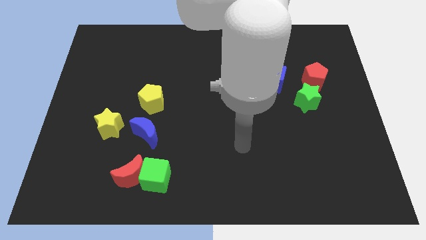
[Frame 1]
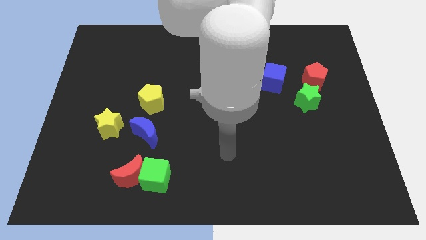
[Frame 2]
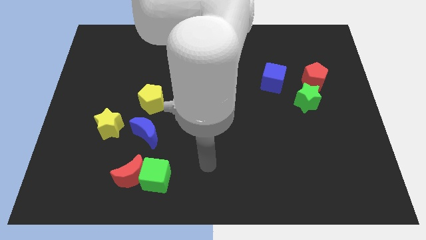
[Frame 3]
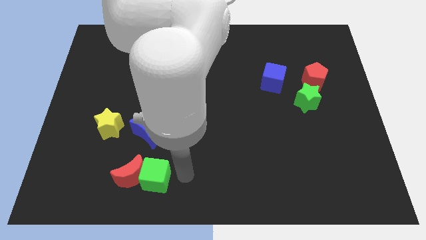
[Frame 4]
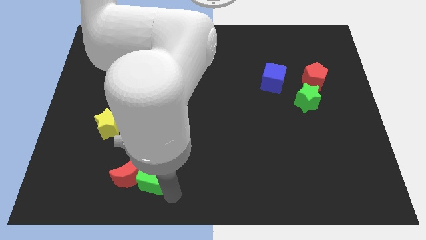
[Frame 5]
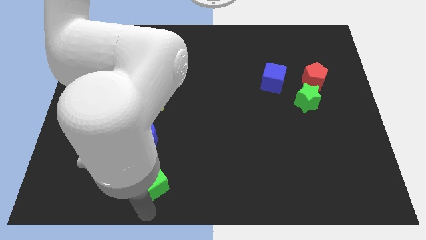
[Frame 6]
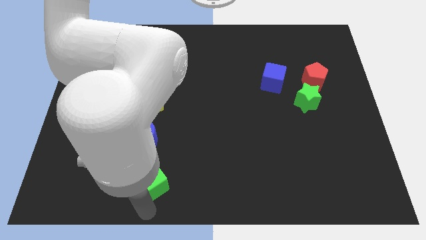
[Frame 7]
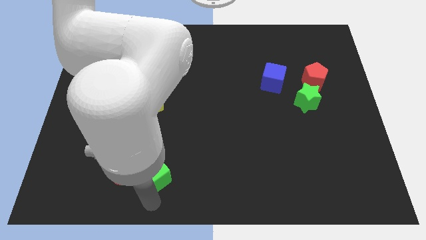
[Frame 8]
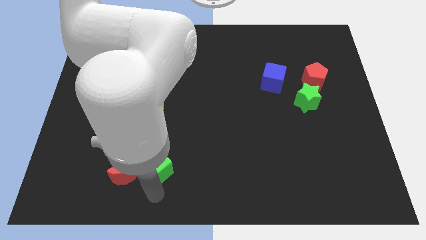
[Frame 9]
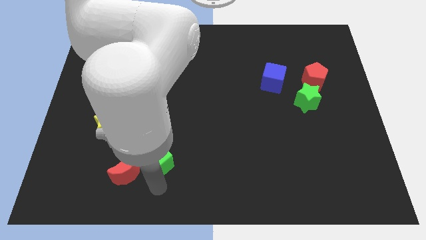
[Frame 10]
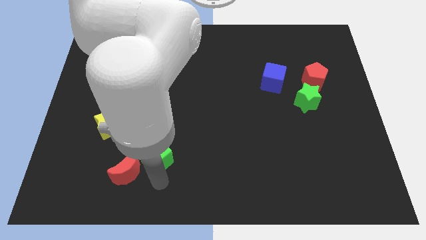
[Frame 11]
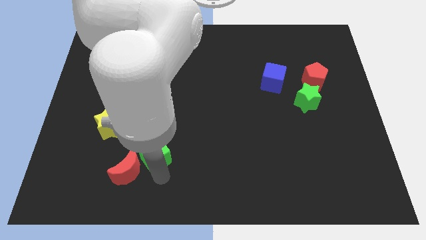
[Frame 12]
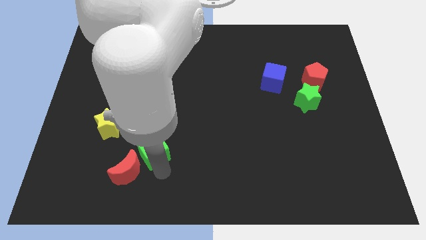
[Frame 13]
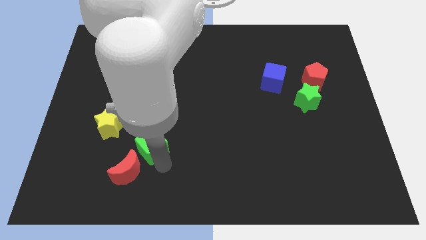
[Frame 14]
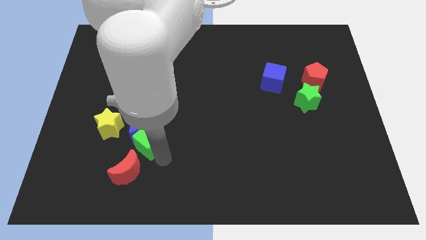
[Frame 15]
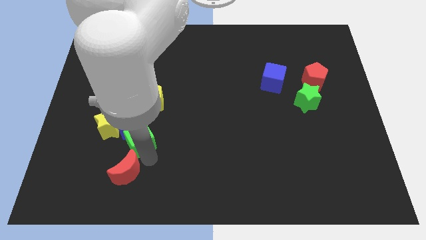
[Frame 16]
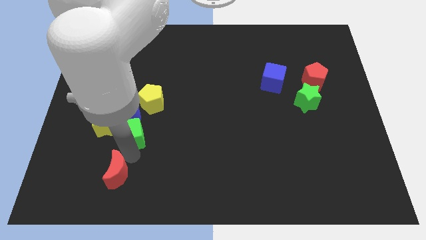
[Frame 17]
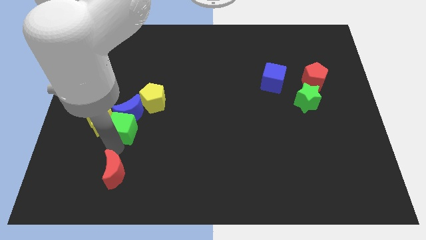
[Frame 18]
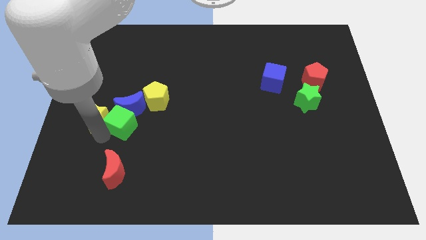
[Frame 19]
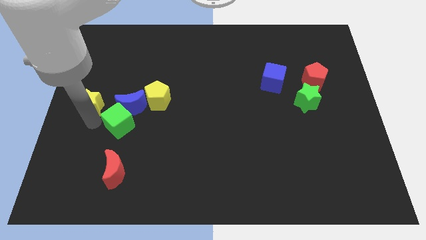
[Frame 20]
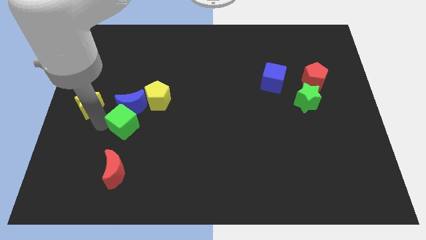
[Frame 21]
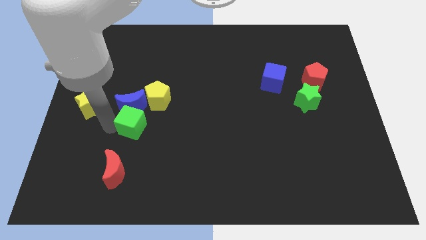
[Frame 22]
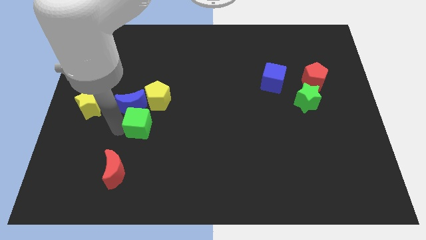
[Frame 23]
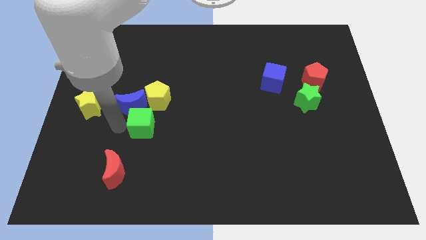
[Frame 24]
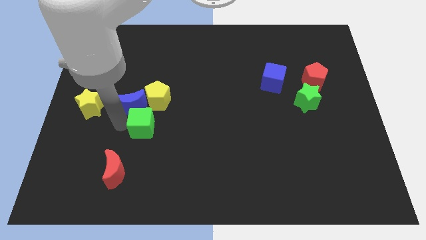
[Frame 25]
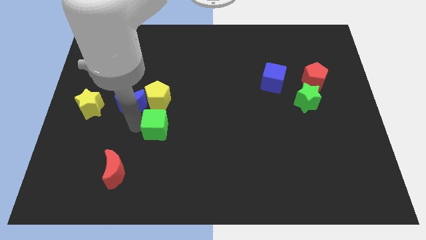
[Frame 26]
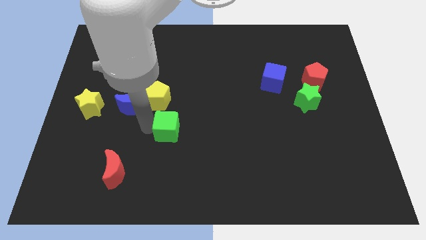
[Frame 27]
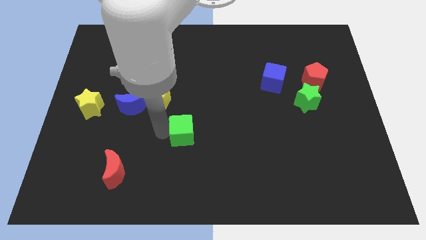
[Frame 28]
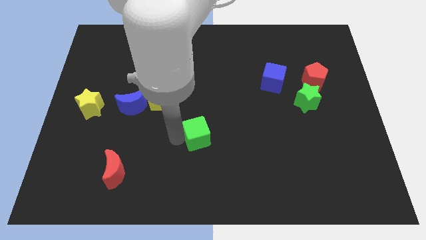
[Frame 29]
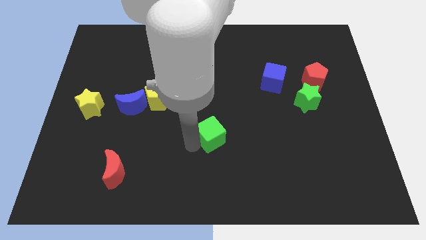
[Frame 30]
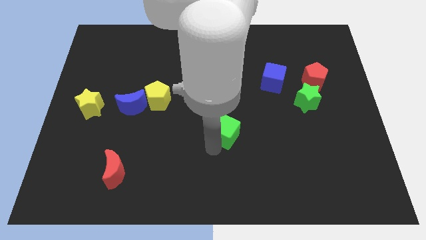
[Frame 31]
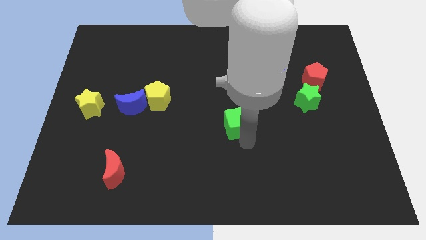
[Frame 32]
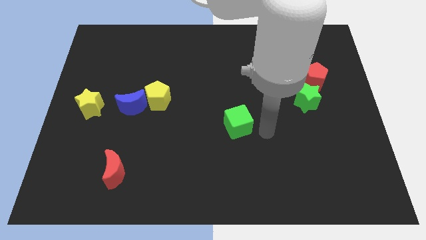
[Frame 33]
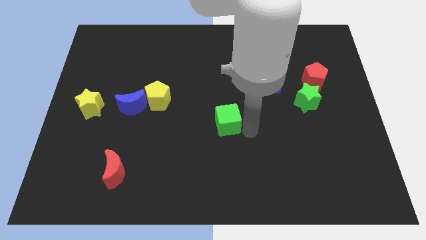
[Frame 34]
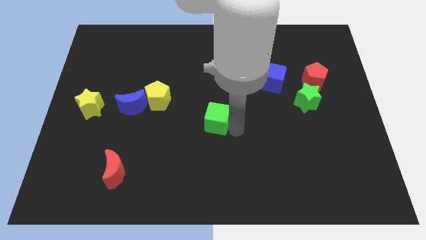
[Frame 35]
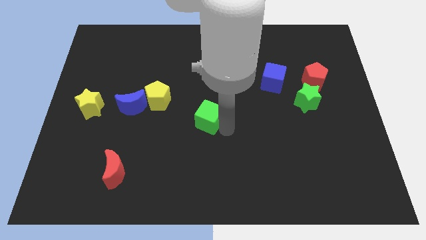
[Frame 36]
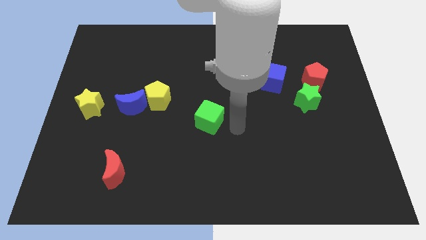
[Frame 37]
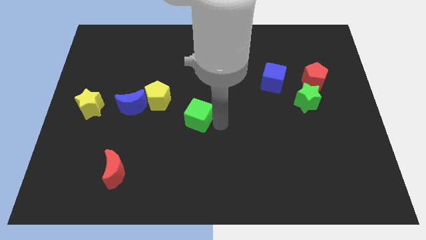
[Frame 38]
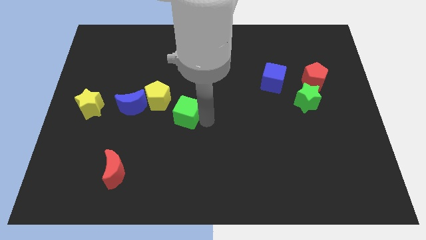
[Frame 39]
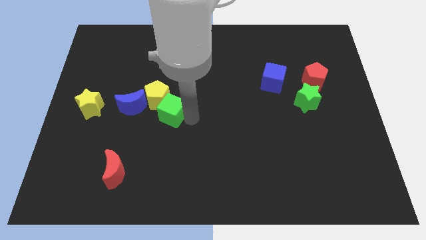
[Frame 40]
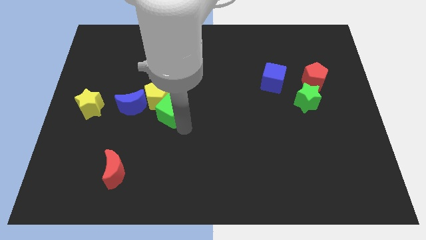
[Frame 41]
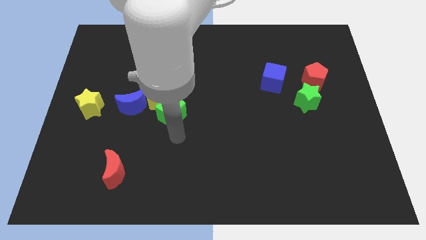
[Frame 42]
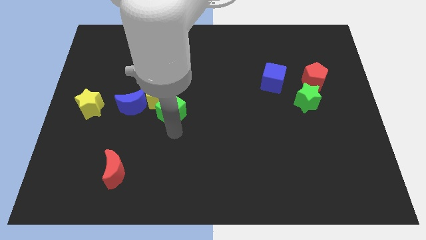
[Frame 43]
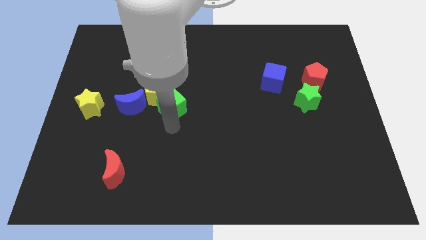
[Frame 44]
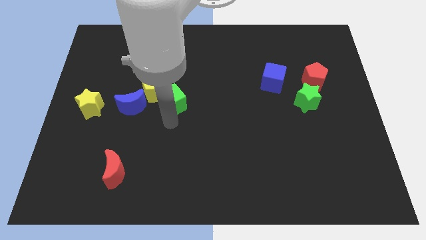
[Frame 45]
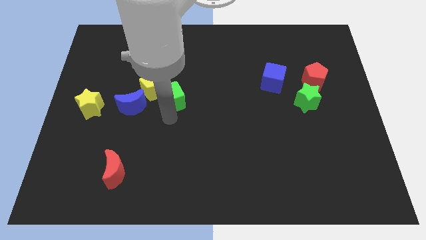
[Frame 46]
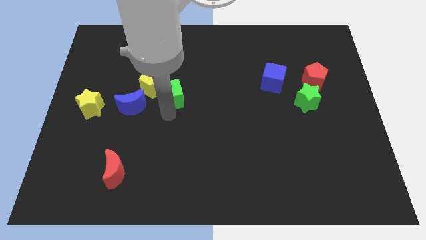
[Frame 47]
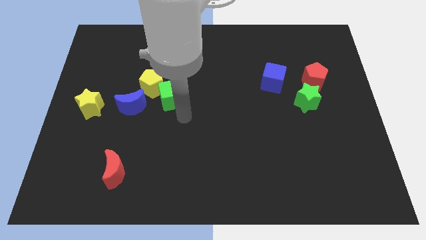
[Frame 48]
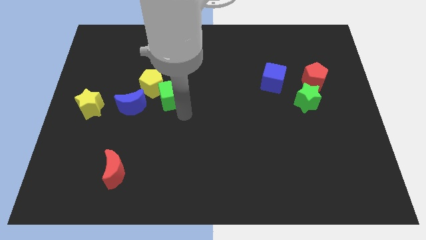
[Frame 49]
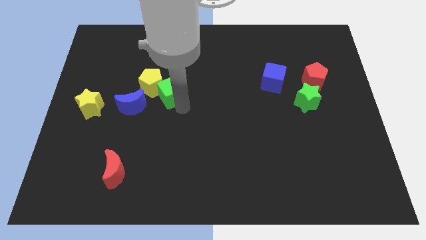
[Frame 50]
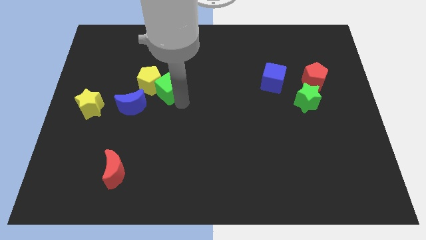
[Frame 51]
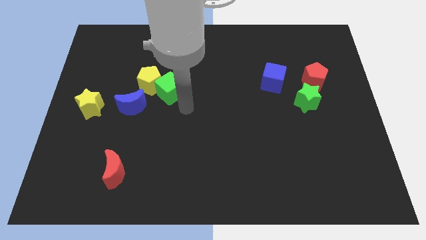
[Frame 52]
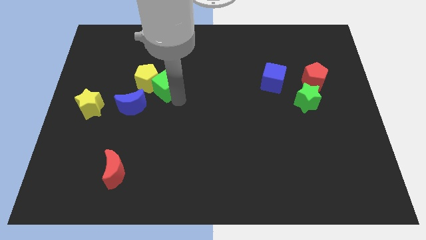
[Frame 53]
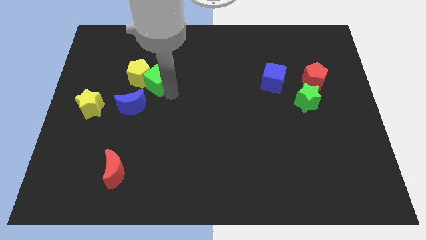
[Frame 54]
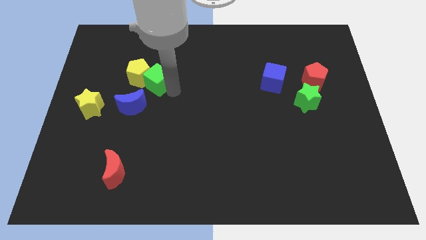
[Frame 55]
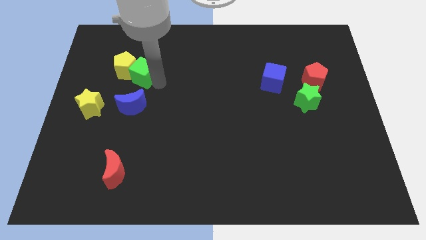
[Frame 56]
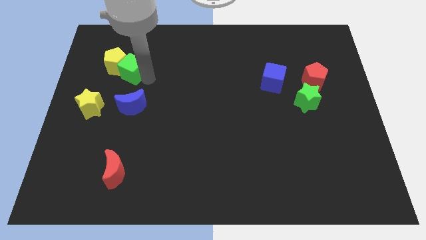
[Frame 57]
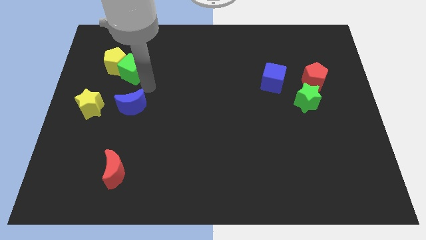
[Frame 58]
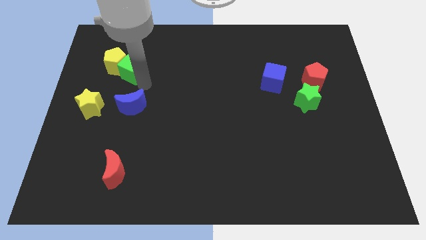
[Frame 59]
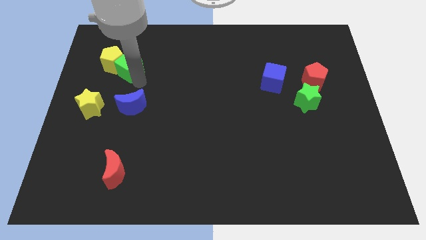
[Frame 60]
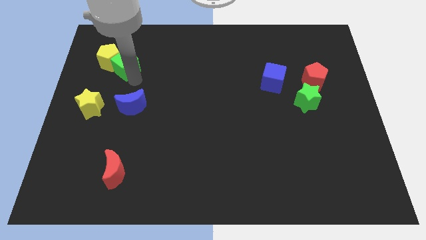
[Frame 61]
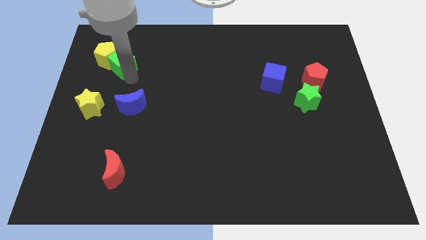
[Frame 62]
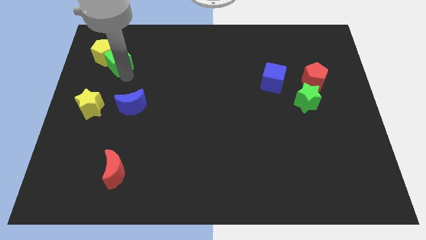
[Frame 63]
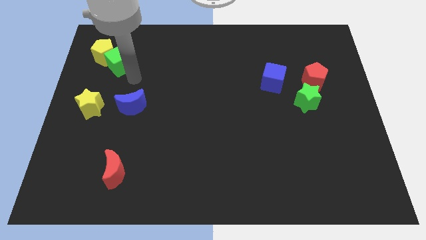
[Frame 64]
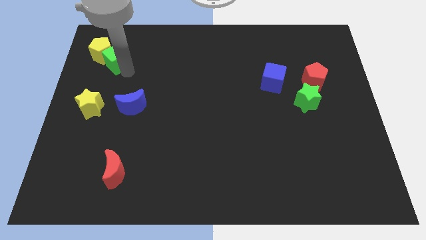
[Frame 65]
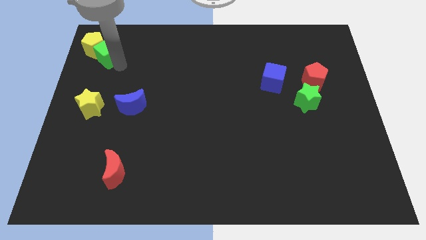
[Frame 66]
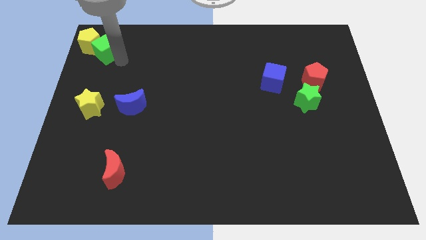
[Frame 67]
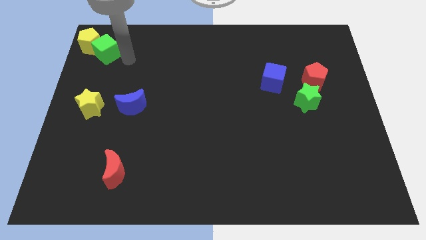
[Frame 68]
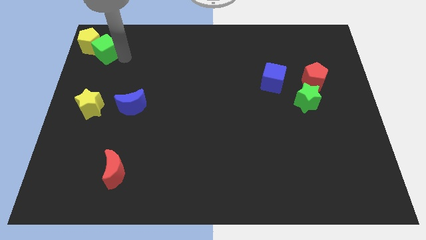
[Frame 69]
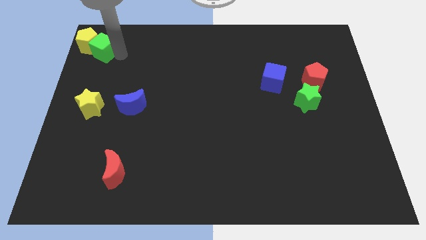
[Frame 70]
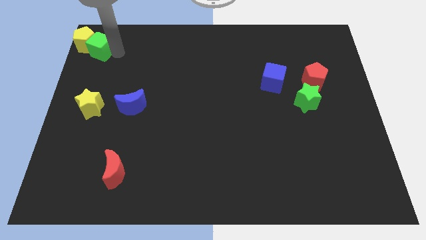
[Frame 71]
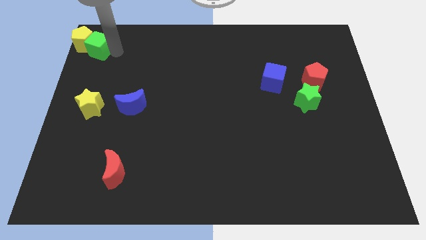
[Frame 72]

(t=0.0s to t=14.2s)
put the green cube to the top left
